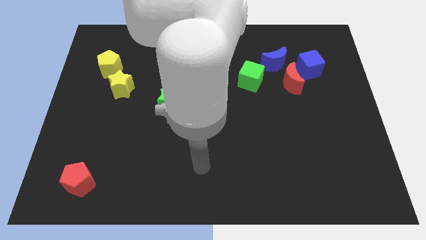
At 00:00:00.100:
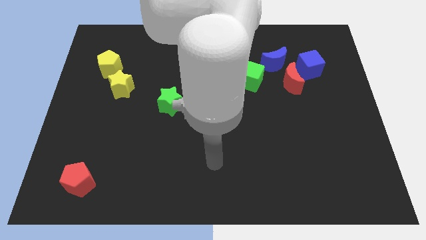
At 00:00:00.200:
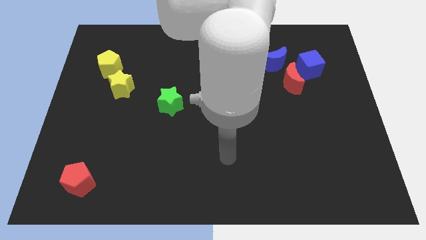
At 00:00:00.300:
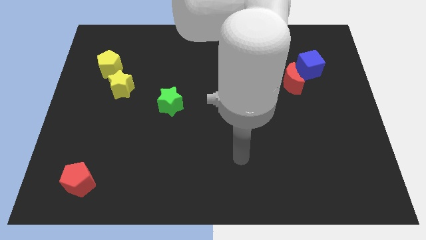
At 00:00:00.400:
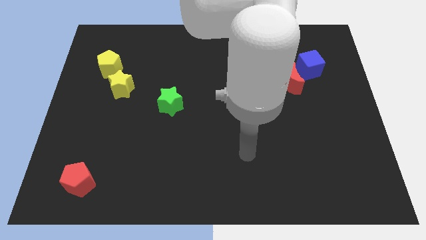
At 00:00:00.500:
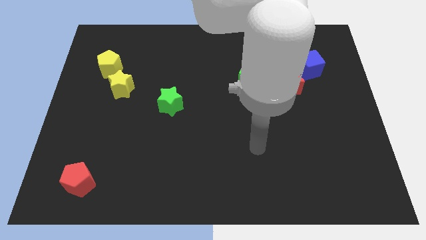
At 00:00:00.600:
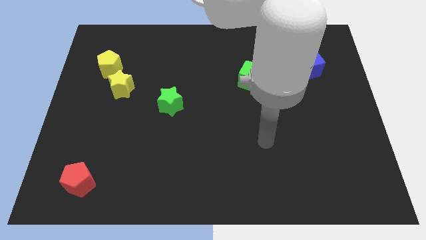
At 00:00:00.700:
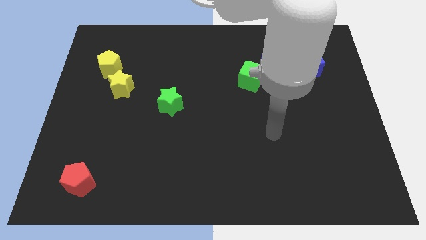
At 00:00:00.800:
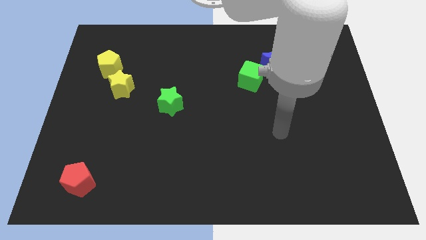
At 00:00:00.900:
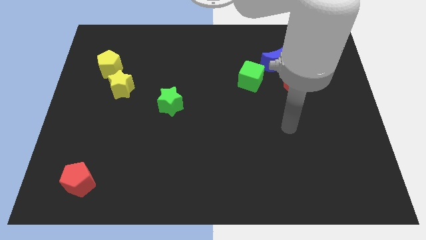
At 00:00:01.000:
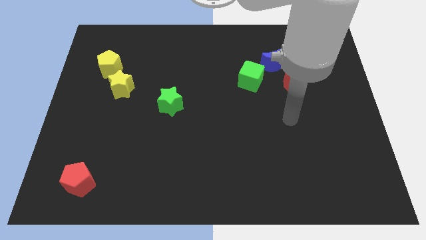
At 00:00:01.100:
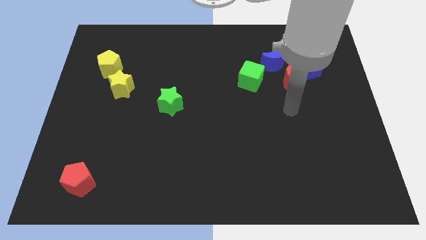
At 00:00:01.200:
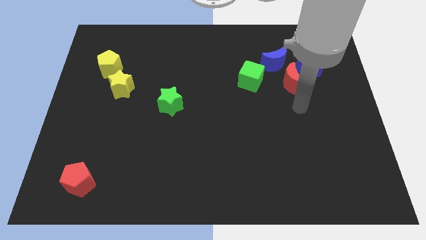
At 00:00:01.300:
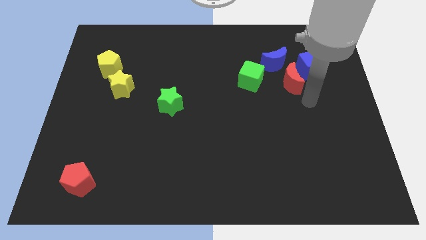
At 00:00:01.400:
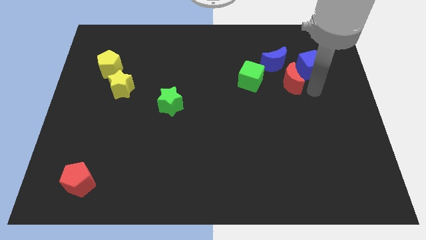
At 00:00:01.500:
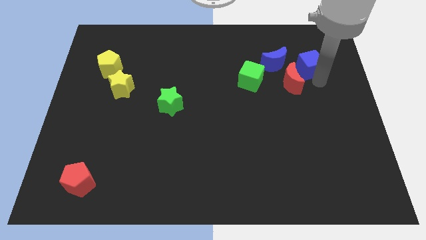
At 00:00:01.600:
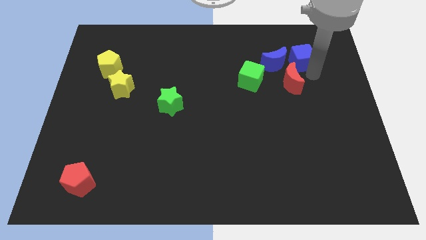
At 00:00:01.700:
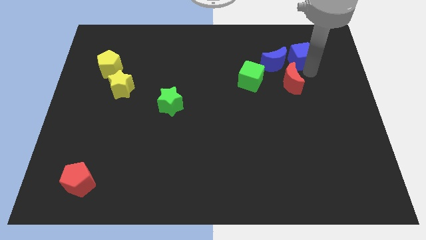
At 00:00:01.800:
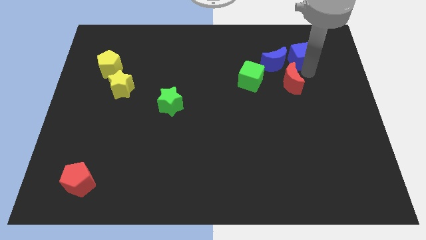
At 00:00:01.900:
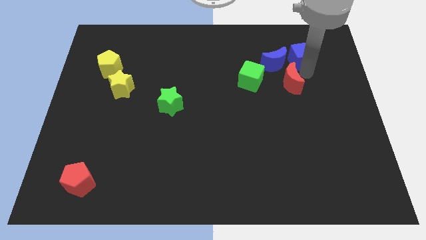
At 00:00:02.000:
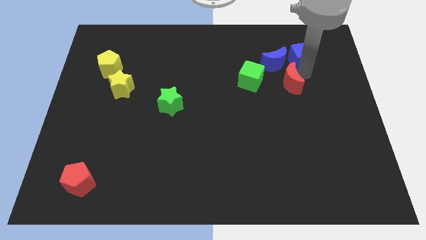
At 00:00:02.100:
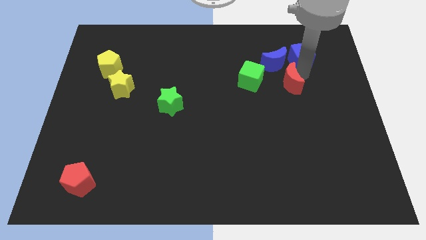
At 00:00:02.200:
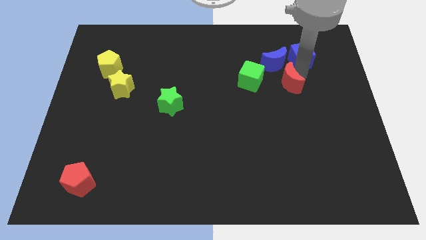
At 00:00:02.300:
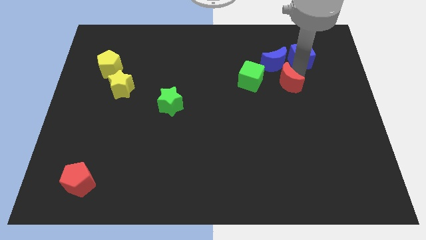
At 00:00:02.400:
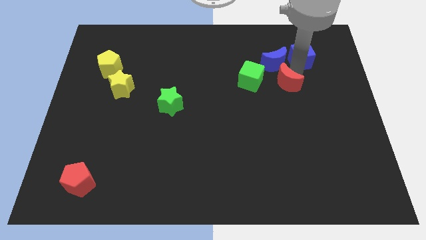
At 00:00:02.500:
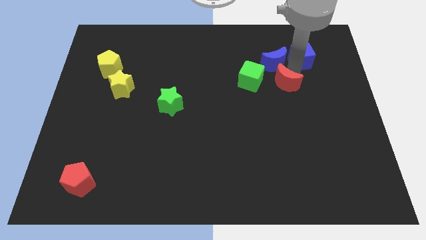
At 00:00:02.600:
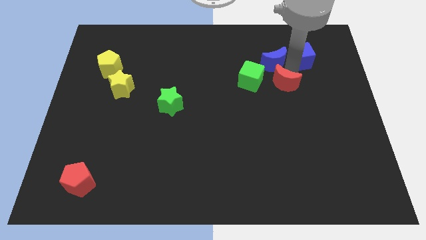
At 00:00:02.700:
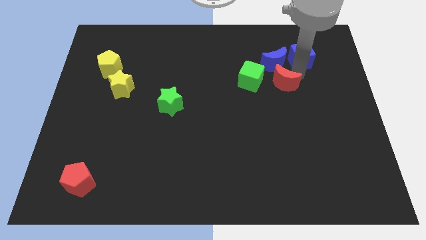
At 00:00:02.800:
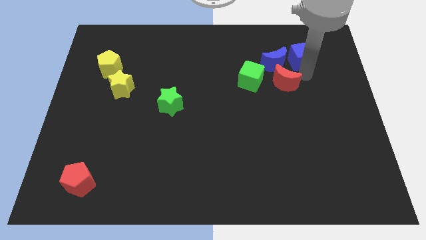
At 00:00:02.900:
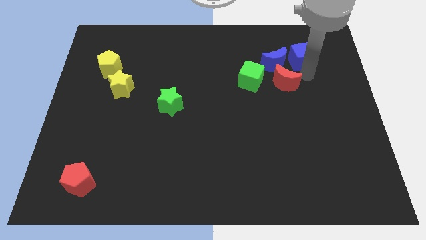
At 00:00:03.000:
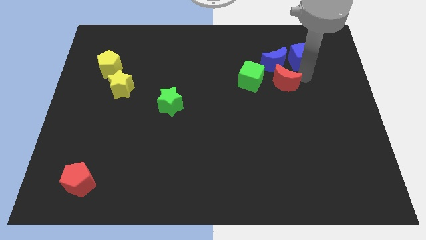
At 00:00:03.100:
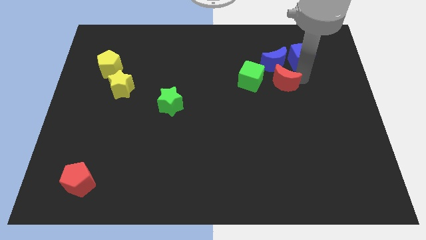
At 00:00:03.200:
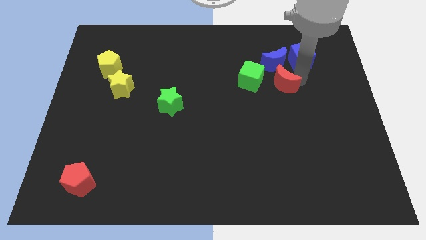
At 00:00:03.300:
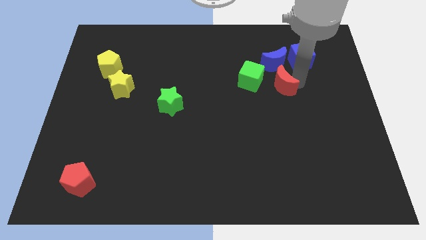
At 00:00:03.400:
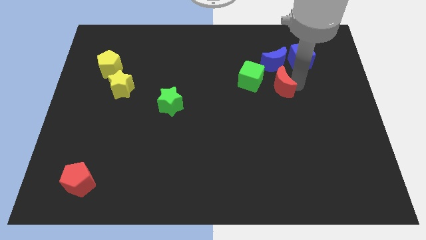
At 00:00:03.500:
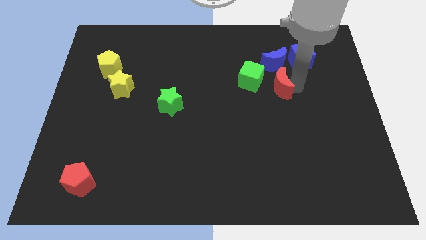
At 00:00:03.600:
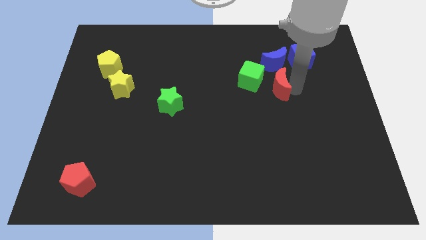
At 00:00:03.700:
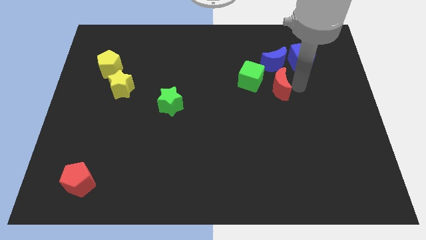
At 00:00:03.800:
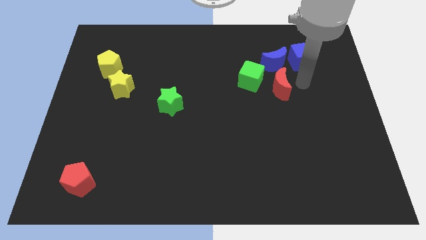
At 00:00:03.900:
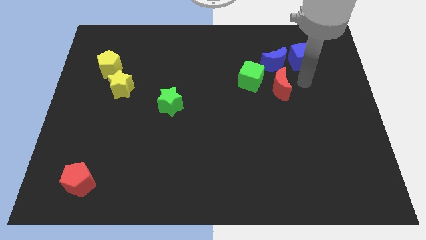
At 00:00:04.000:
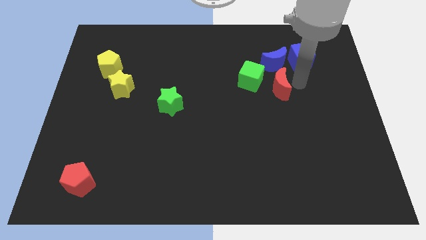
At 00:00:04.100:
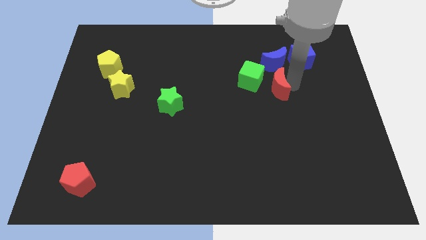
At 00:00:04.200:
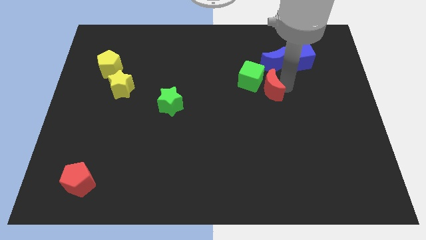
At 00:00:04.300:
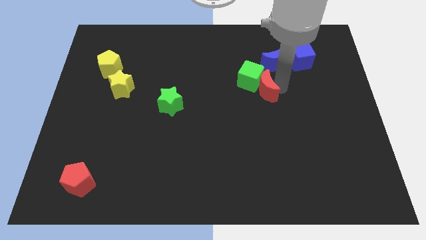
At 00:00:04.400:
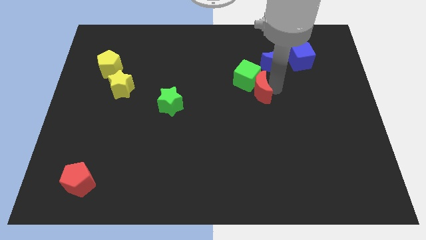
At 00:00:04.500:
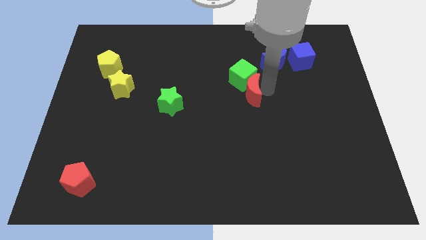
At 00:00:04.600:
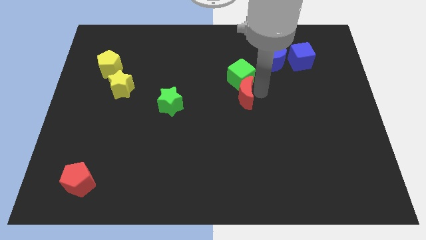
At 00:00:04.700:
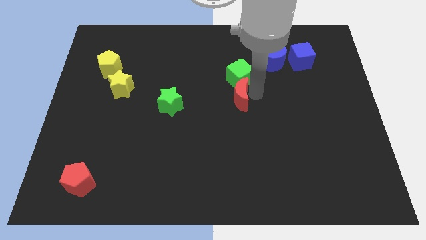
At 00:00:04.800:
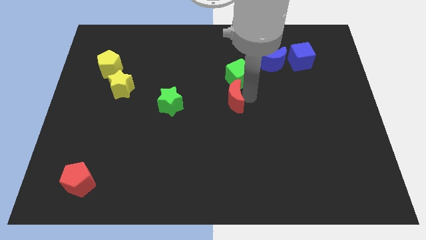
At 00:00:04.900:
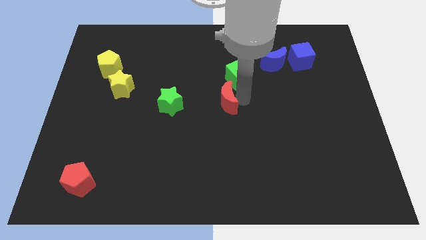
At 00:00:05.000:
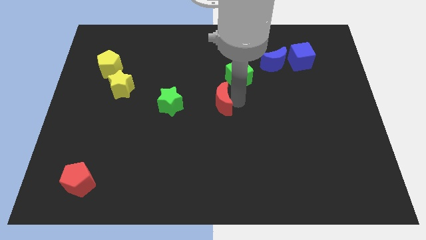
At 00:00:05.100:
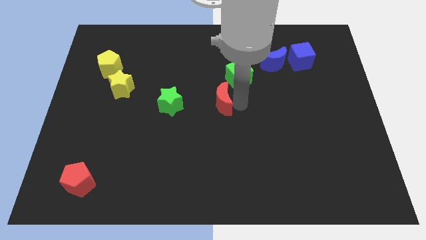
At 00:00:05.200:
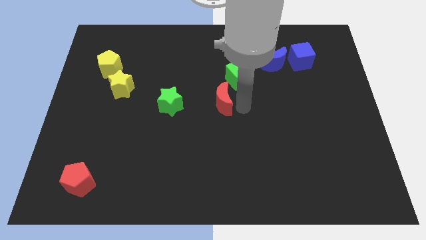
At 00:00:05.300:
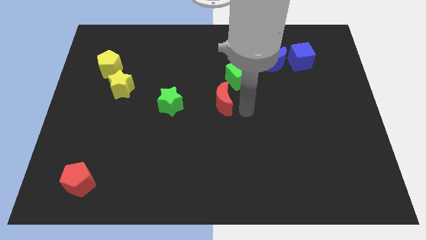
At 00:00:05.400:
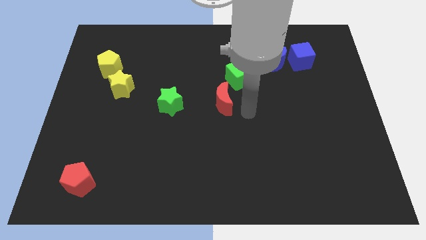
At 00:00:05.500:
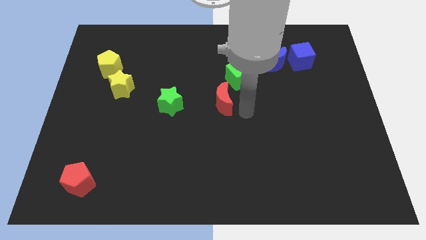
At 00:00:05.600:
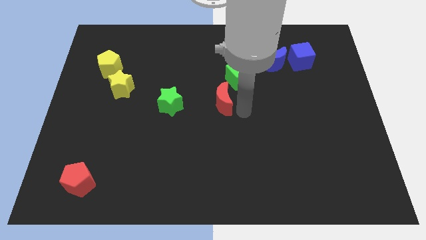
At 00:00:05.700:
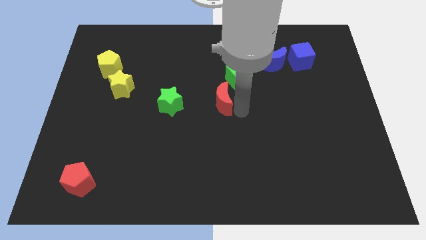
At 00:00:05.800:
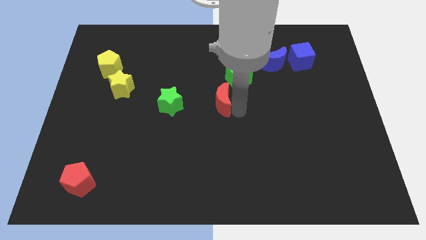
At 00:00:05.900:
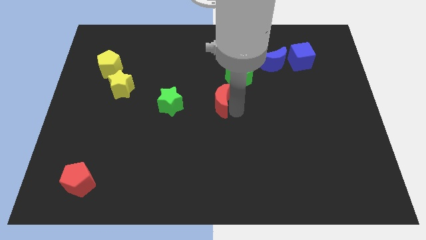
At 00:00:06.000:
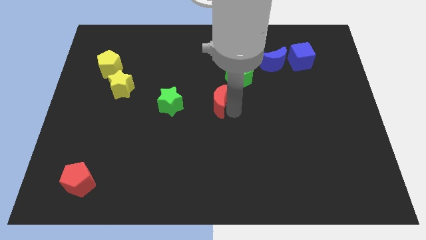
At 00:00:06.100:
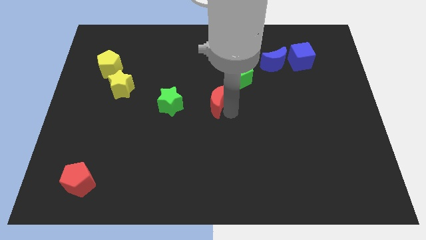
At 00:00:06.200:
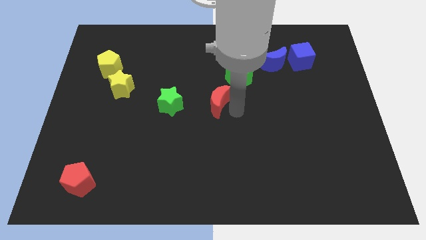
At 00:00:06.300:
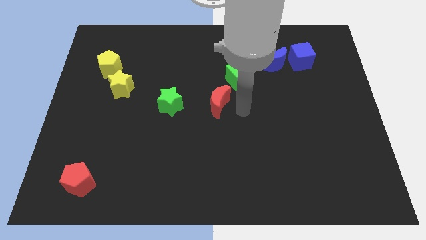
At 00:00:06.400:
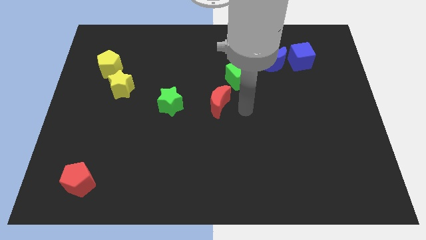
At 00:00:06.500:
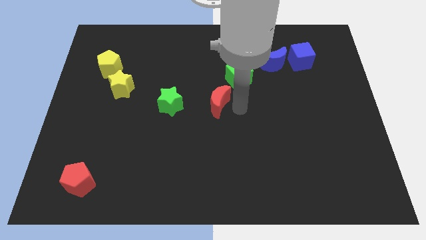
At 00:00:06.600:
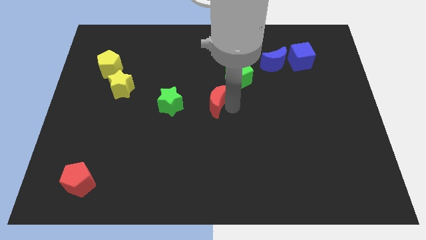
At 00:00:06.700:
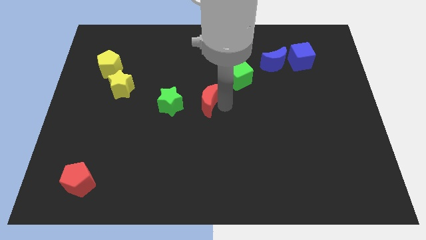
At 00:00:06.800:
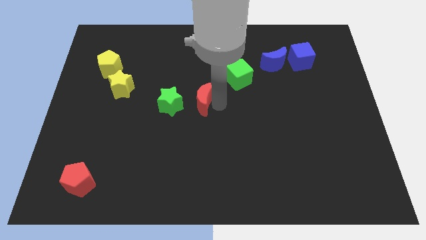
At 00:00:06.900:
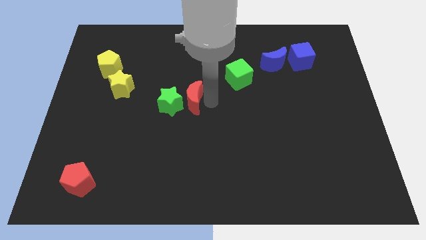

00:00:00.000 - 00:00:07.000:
slide the red moon close to the green star
